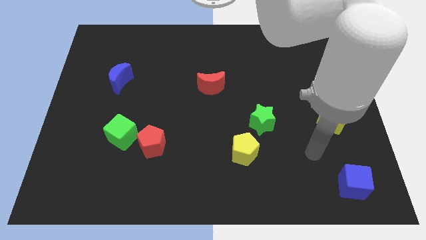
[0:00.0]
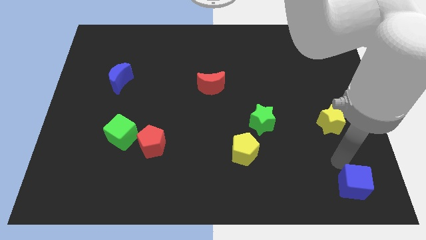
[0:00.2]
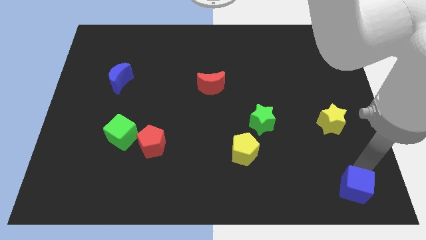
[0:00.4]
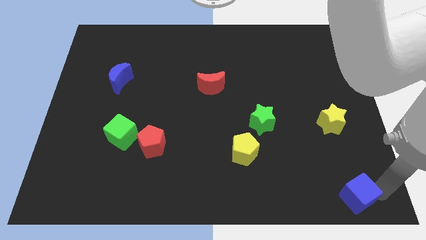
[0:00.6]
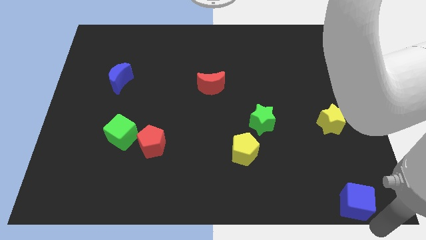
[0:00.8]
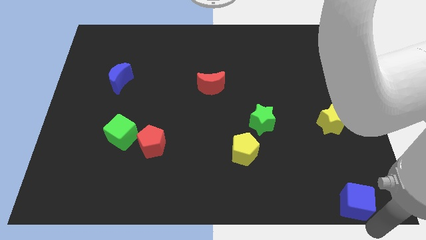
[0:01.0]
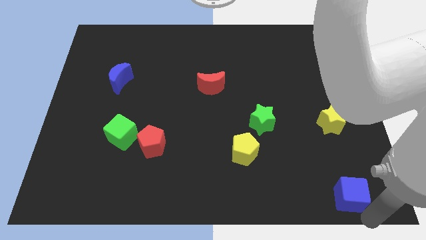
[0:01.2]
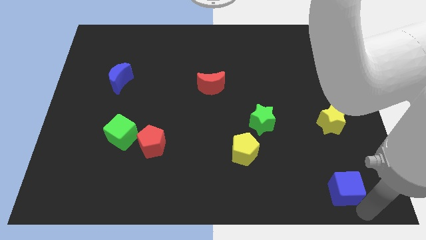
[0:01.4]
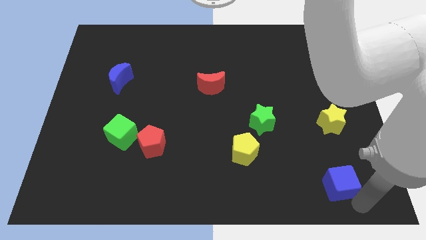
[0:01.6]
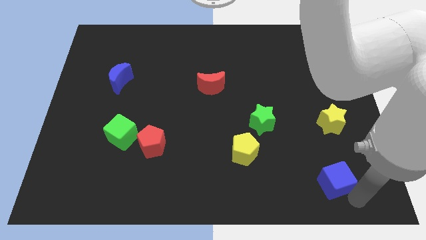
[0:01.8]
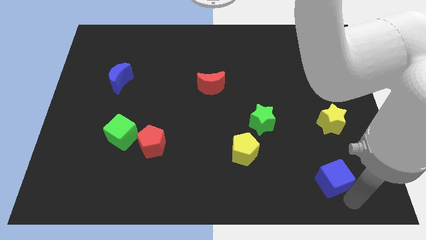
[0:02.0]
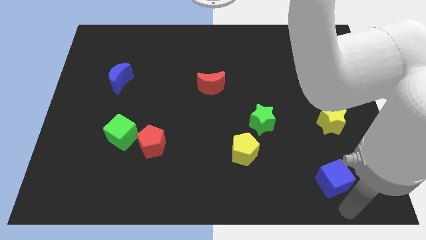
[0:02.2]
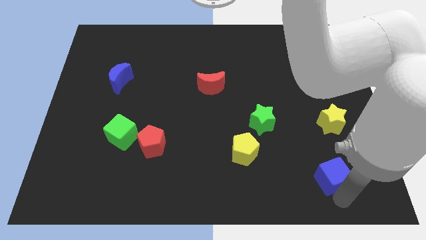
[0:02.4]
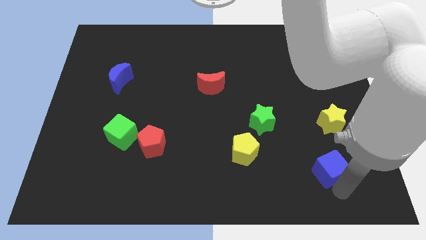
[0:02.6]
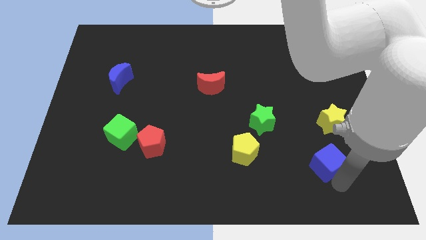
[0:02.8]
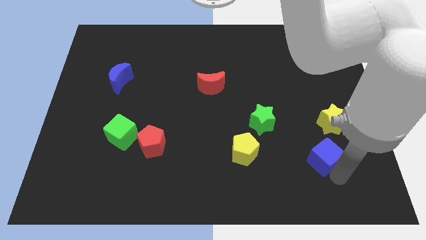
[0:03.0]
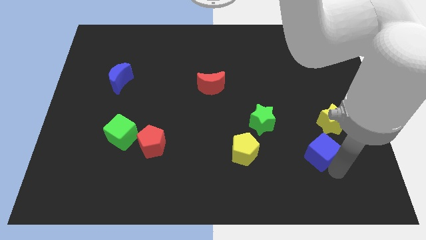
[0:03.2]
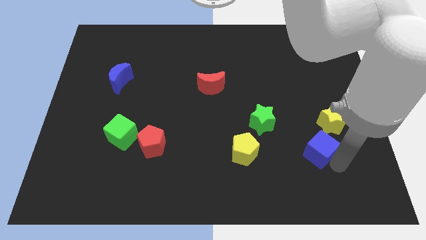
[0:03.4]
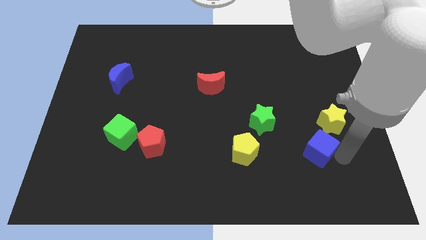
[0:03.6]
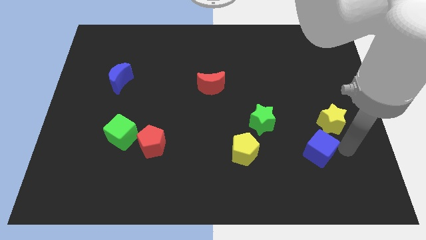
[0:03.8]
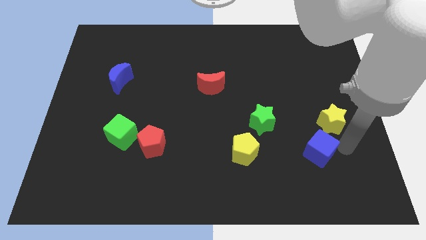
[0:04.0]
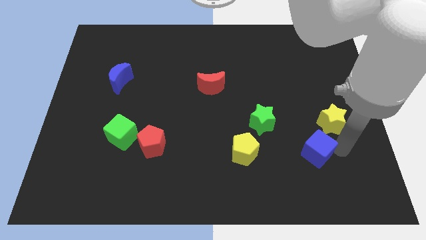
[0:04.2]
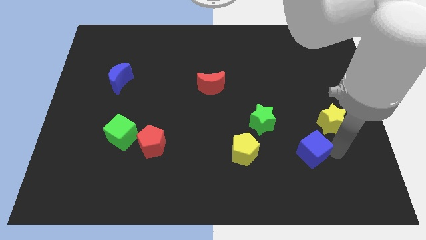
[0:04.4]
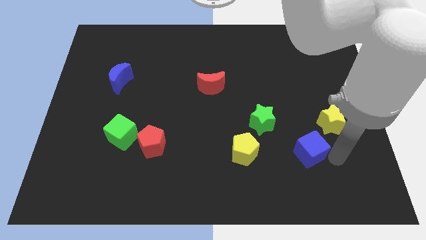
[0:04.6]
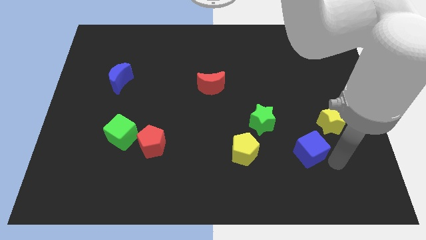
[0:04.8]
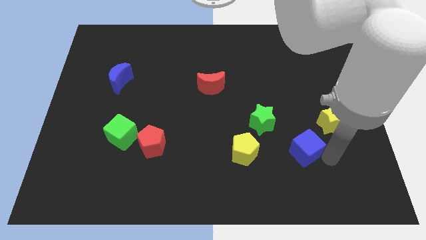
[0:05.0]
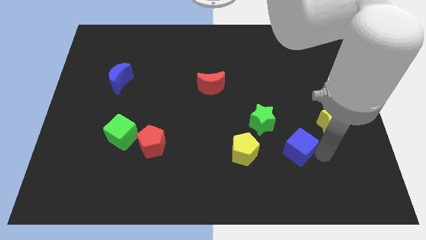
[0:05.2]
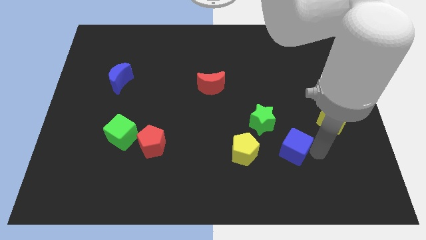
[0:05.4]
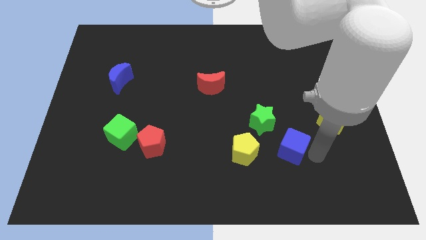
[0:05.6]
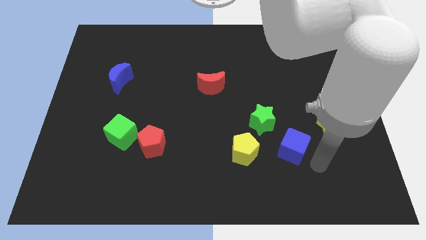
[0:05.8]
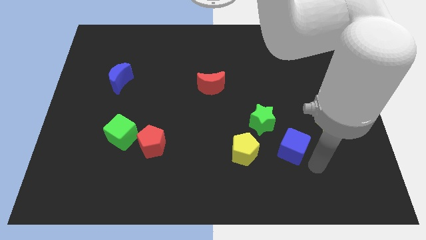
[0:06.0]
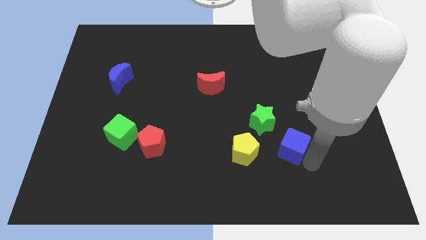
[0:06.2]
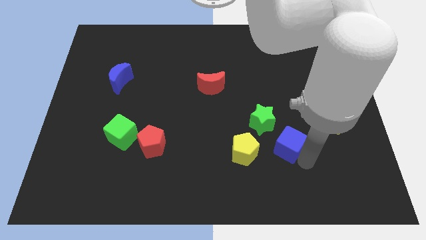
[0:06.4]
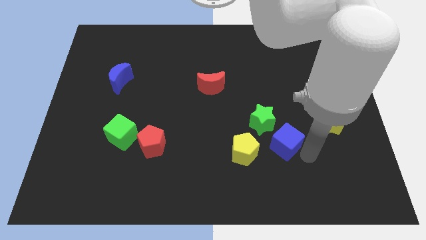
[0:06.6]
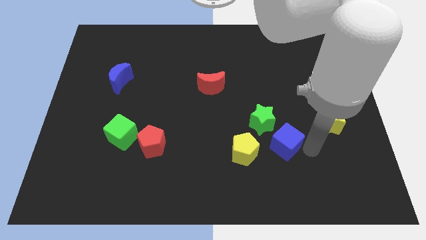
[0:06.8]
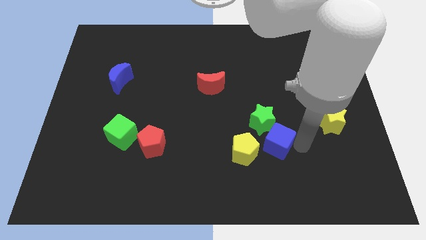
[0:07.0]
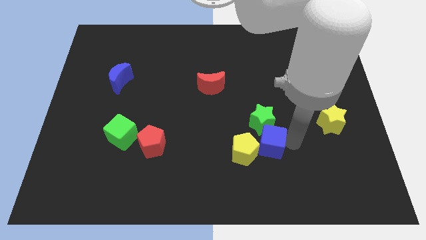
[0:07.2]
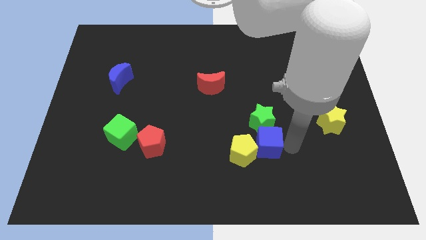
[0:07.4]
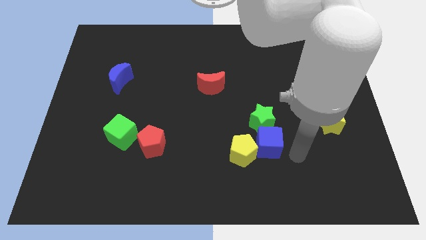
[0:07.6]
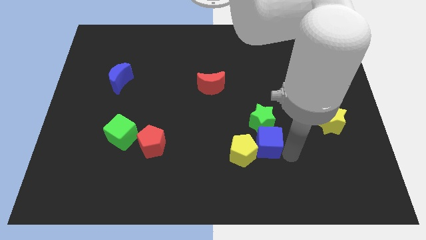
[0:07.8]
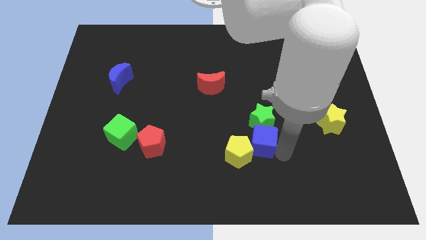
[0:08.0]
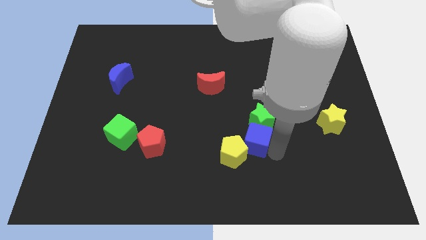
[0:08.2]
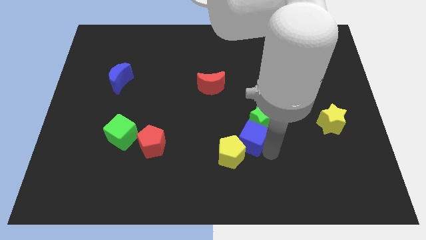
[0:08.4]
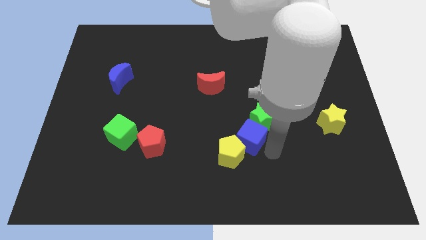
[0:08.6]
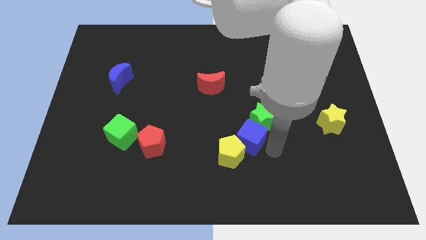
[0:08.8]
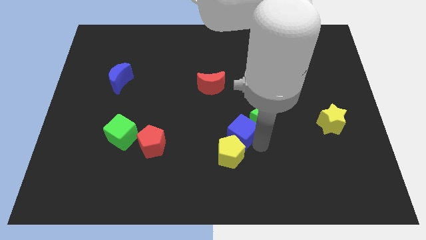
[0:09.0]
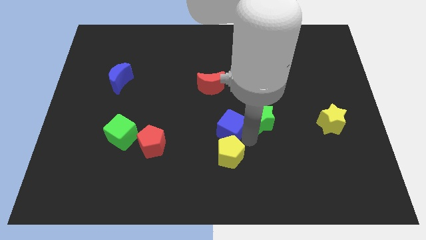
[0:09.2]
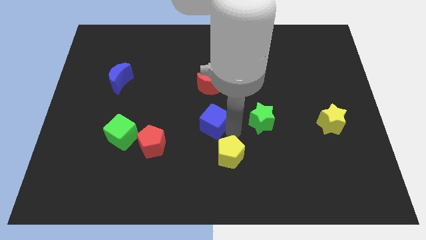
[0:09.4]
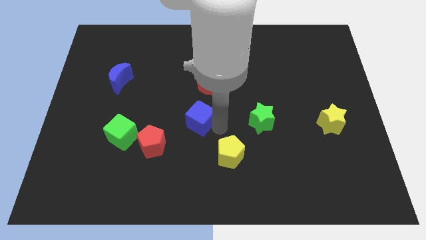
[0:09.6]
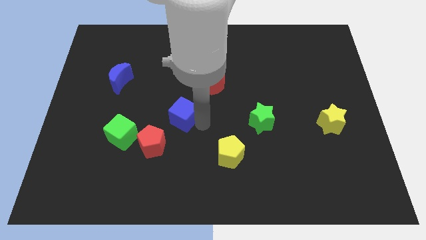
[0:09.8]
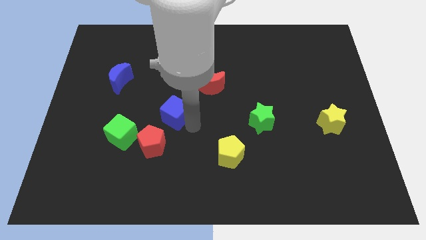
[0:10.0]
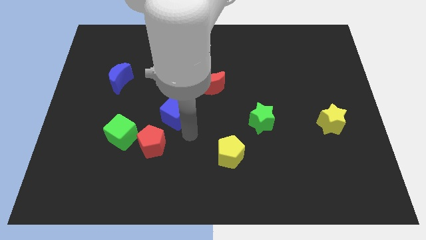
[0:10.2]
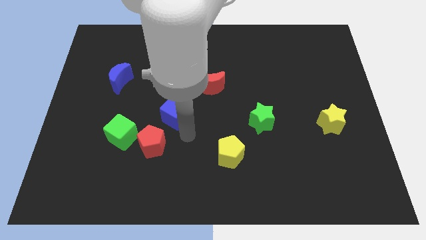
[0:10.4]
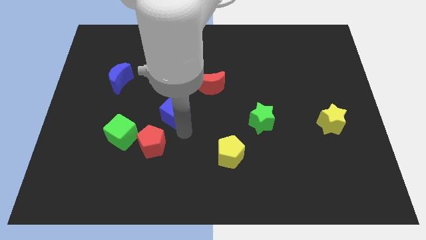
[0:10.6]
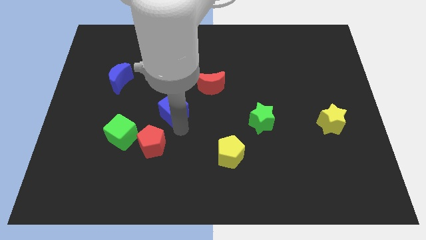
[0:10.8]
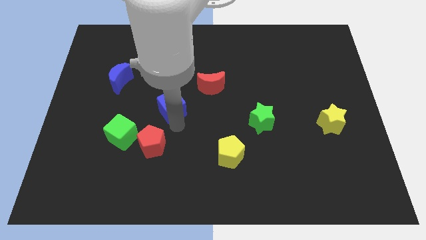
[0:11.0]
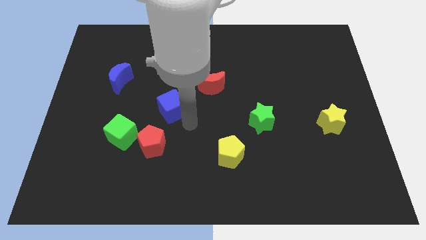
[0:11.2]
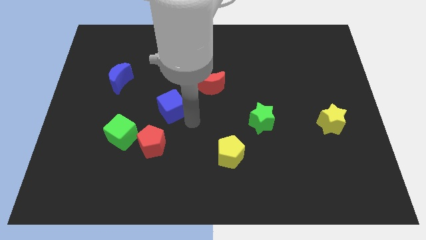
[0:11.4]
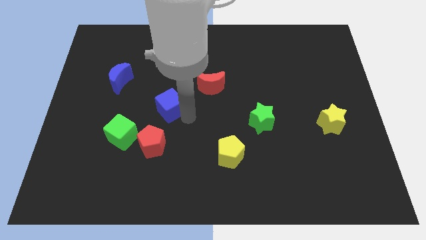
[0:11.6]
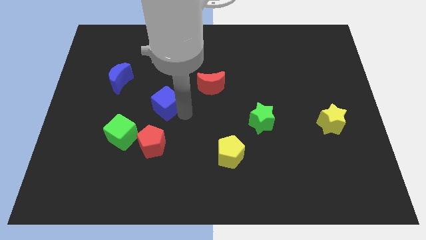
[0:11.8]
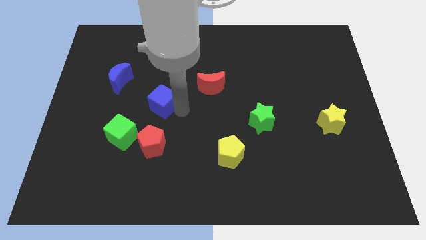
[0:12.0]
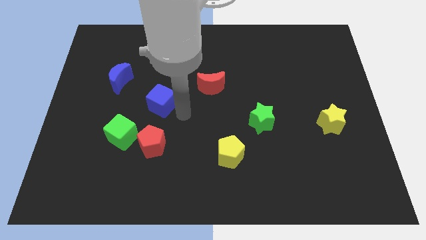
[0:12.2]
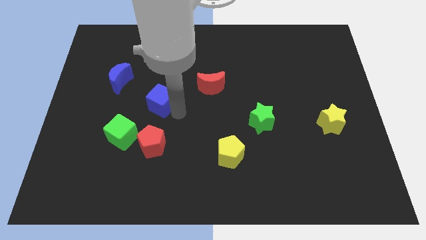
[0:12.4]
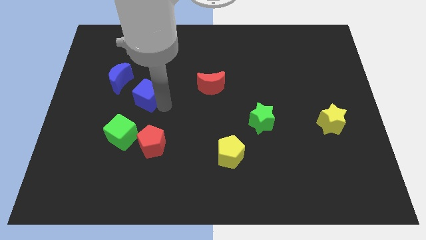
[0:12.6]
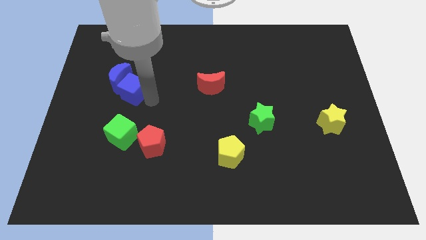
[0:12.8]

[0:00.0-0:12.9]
put the blue cube to the blue moon

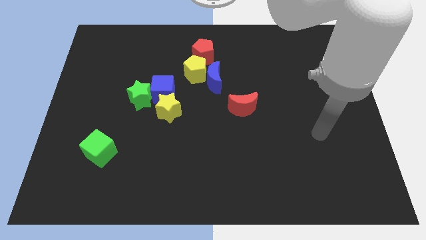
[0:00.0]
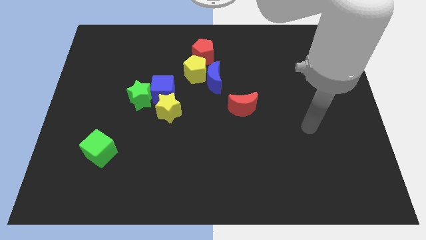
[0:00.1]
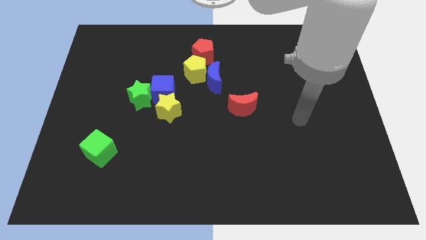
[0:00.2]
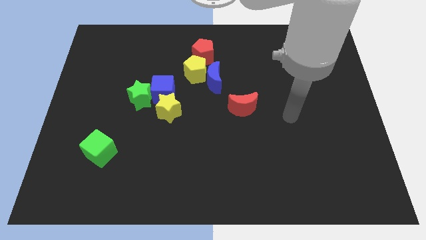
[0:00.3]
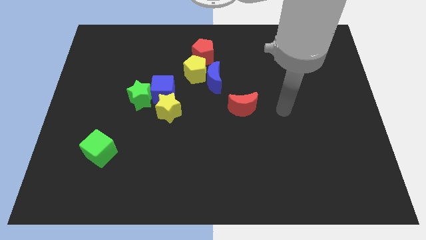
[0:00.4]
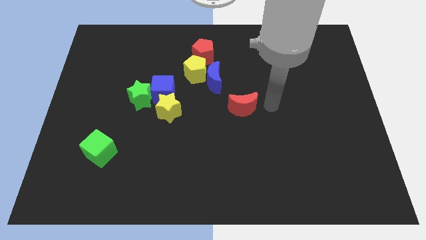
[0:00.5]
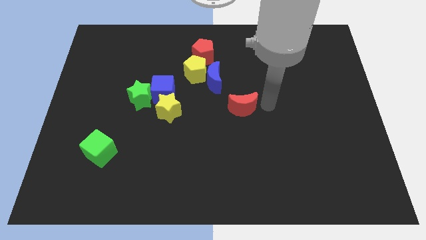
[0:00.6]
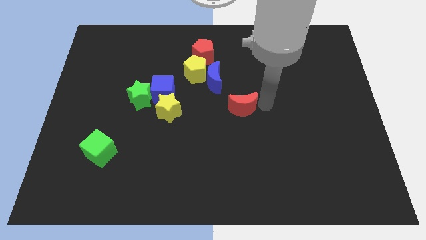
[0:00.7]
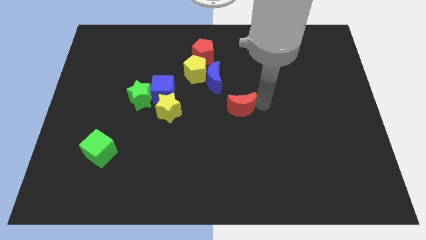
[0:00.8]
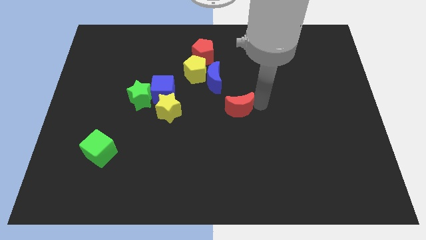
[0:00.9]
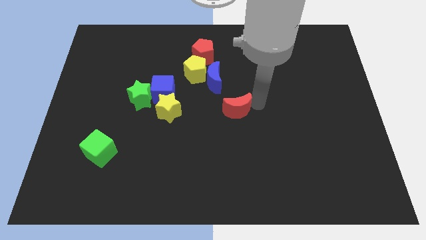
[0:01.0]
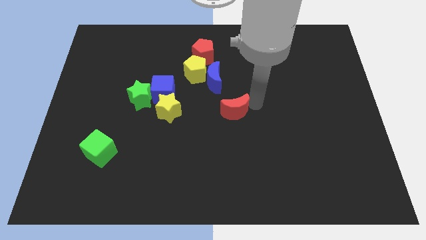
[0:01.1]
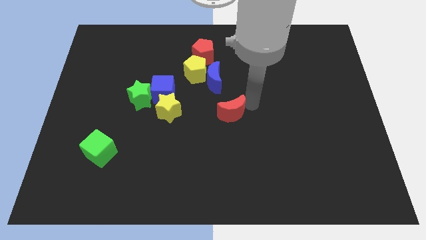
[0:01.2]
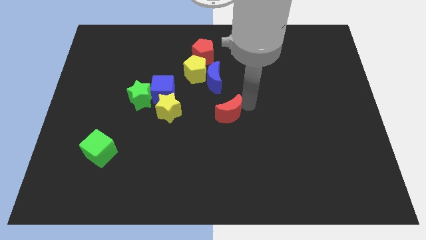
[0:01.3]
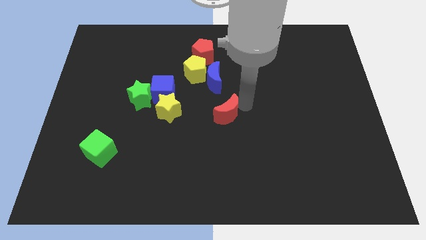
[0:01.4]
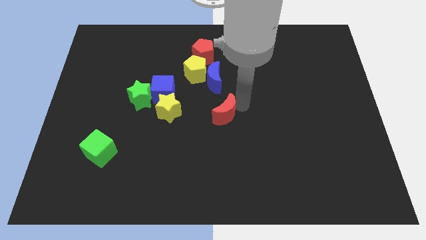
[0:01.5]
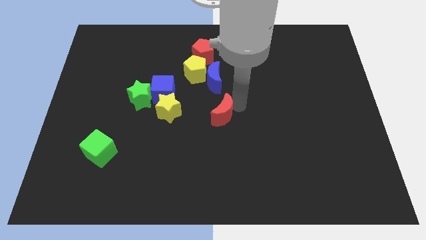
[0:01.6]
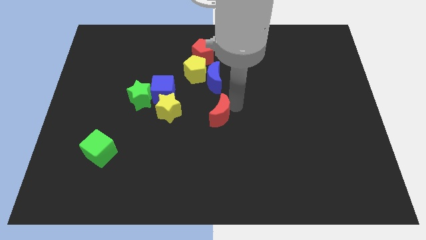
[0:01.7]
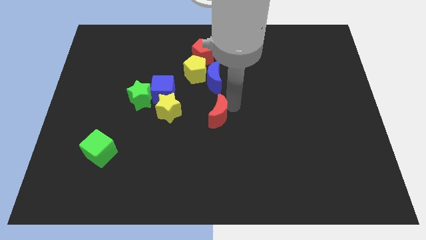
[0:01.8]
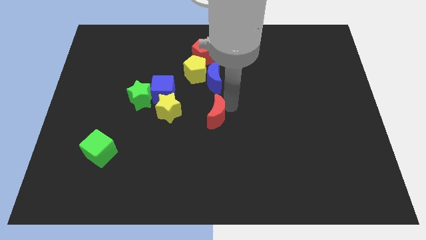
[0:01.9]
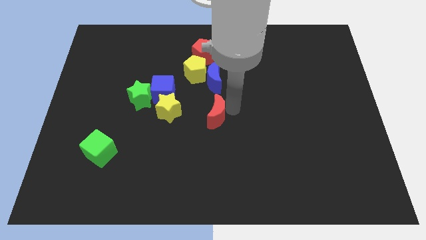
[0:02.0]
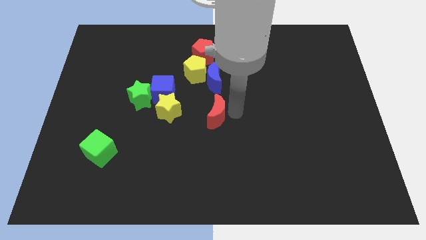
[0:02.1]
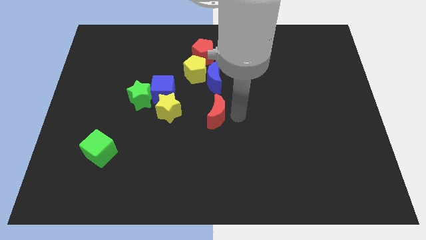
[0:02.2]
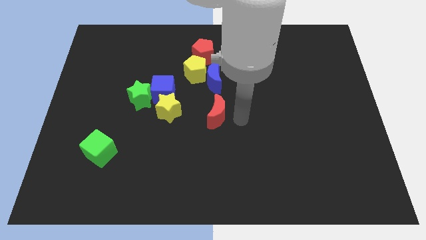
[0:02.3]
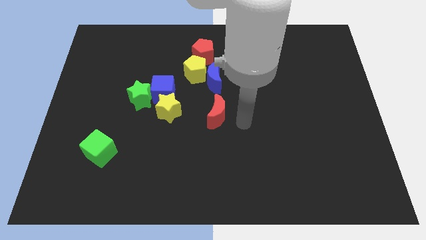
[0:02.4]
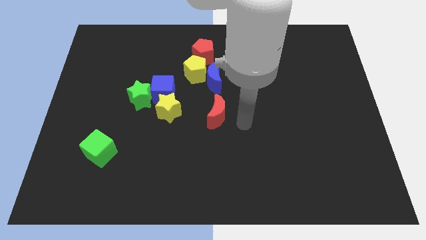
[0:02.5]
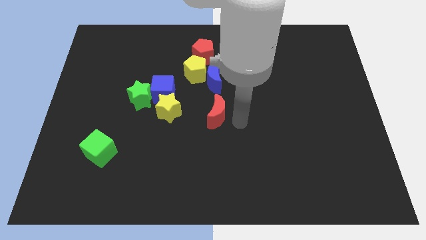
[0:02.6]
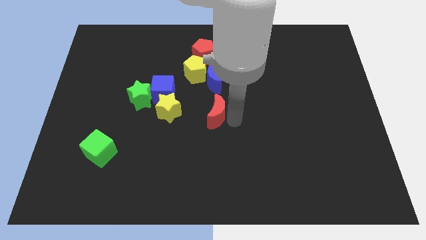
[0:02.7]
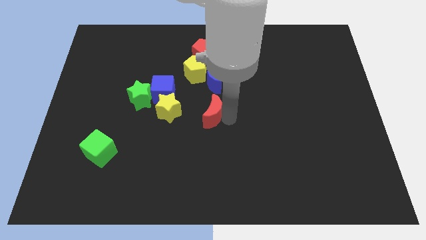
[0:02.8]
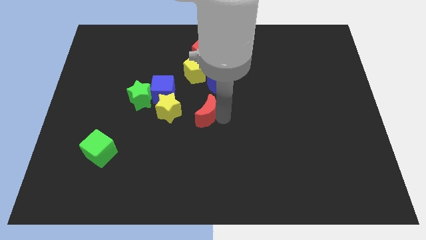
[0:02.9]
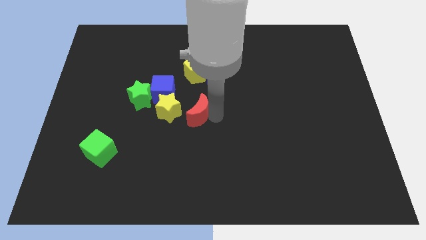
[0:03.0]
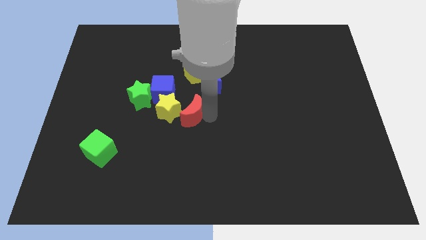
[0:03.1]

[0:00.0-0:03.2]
slide the red moon towards the yellow star
